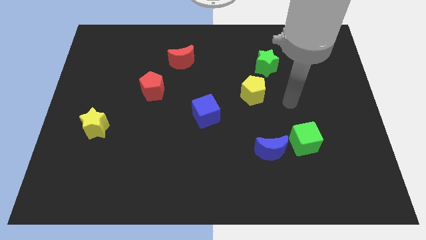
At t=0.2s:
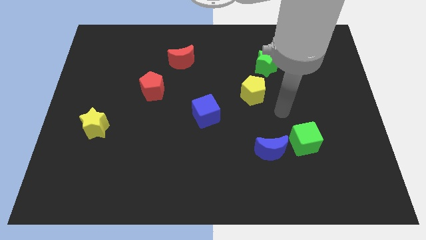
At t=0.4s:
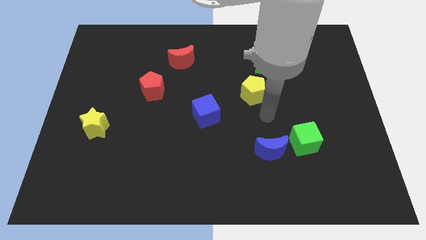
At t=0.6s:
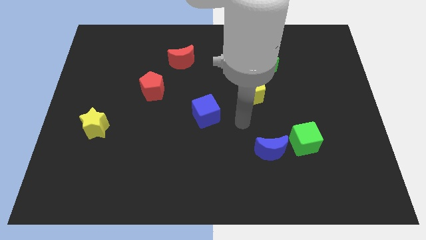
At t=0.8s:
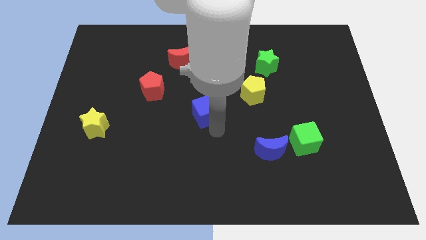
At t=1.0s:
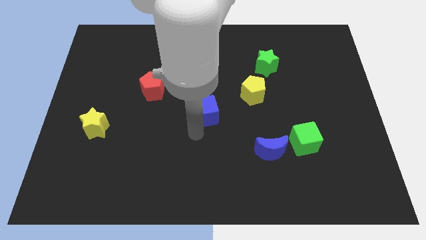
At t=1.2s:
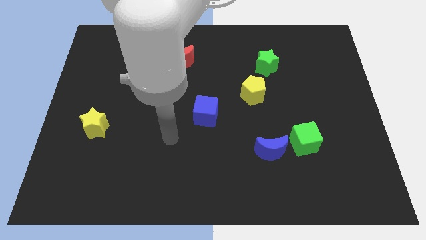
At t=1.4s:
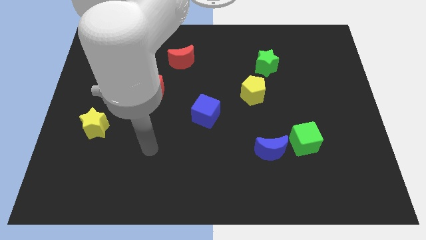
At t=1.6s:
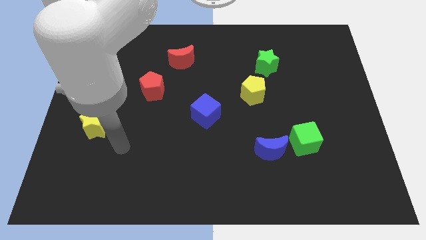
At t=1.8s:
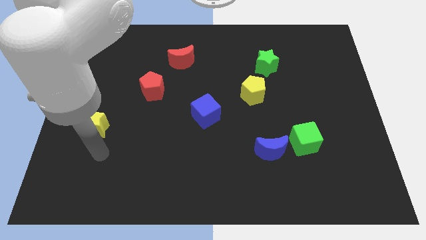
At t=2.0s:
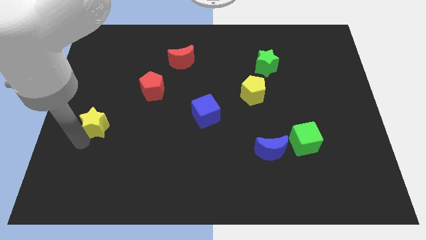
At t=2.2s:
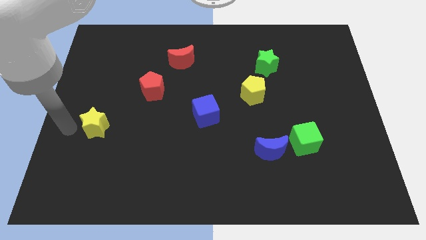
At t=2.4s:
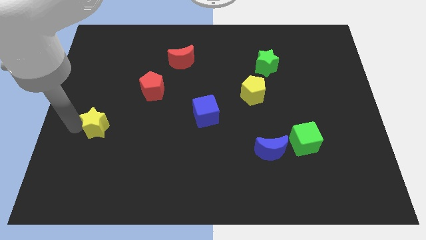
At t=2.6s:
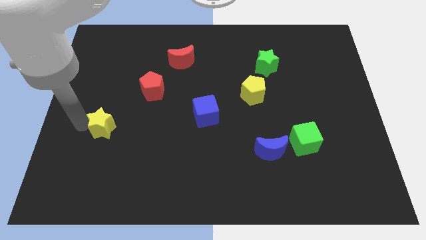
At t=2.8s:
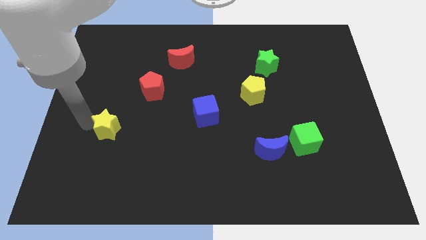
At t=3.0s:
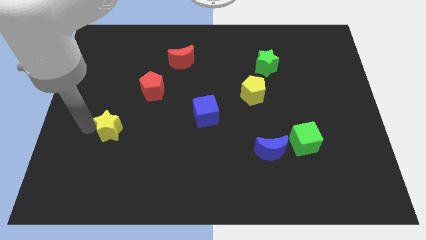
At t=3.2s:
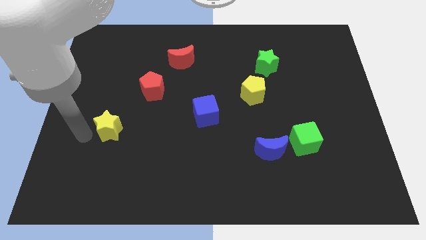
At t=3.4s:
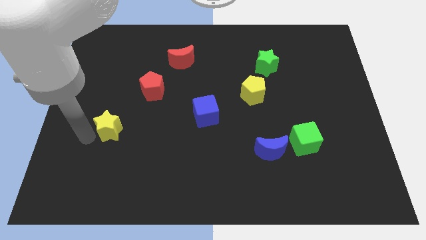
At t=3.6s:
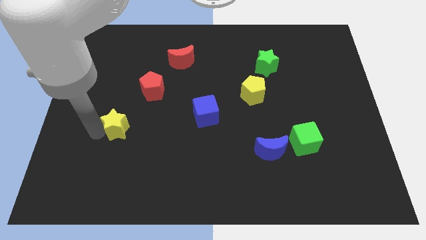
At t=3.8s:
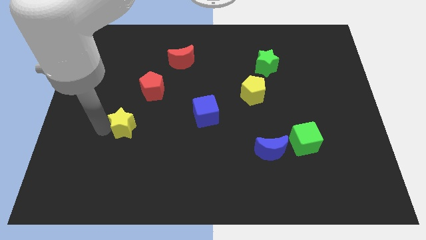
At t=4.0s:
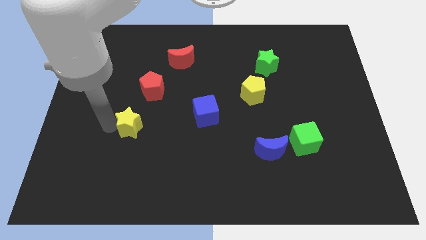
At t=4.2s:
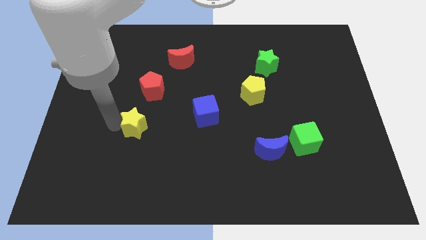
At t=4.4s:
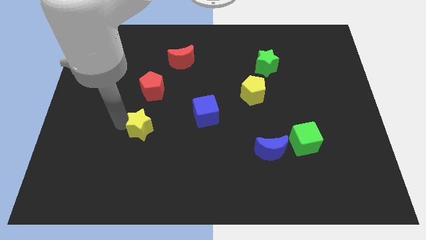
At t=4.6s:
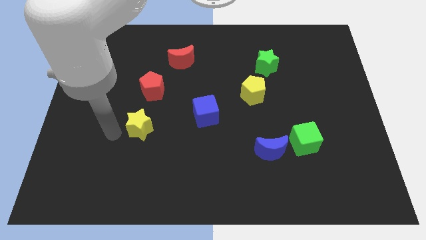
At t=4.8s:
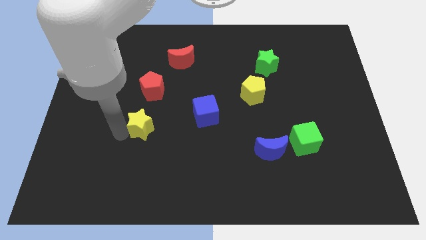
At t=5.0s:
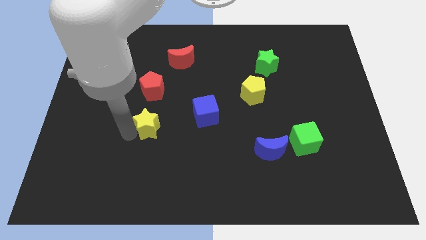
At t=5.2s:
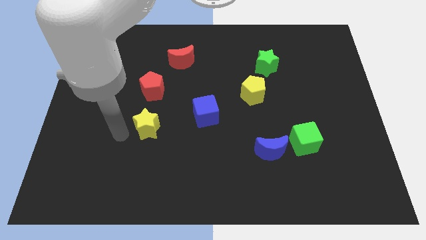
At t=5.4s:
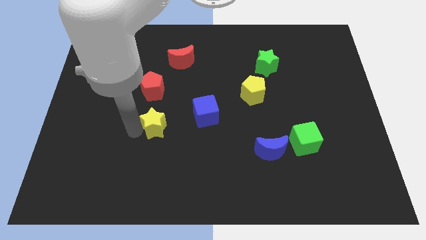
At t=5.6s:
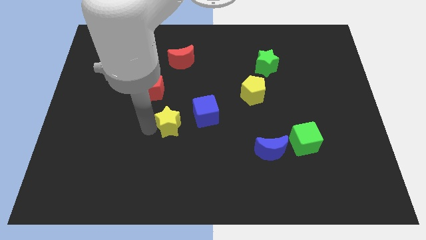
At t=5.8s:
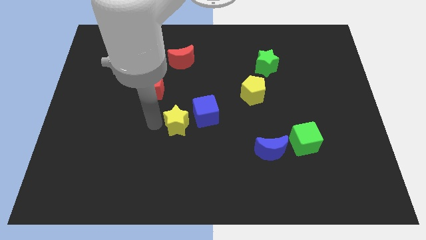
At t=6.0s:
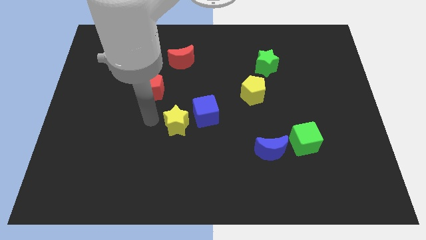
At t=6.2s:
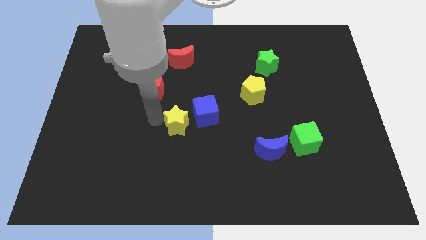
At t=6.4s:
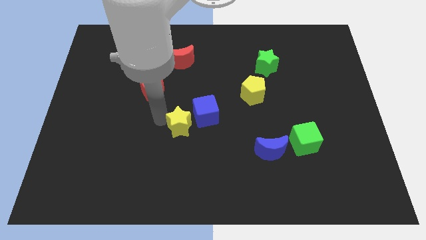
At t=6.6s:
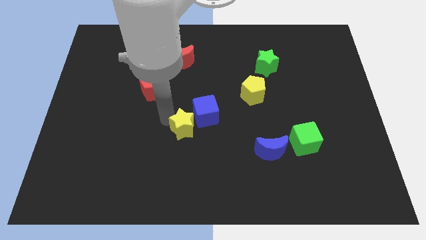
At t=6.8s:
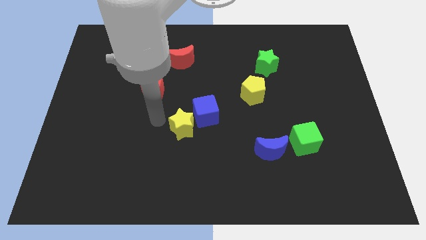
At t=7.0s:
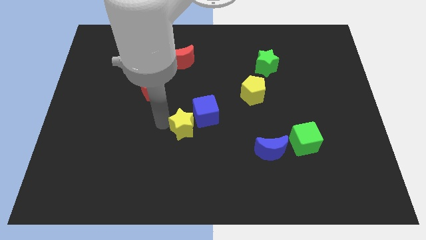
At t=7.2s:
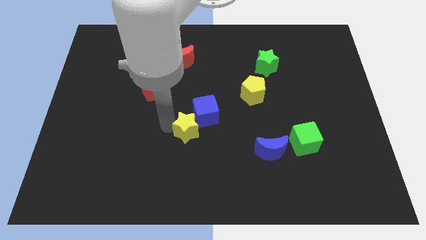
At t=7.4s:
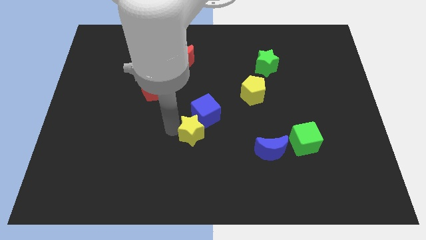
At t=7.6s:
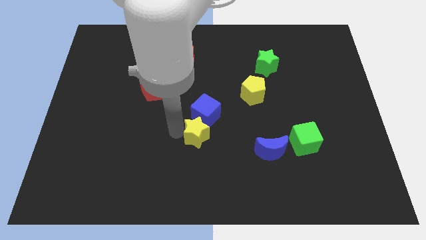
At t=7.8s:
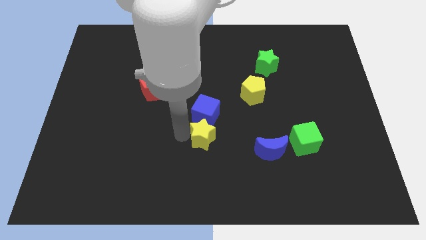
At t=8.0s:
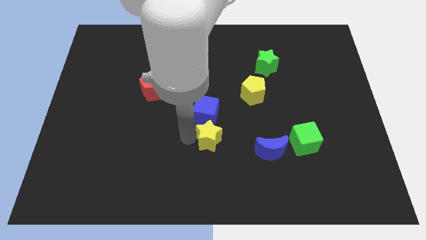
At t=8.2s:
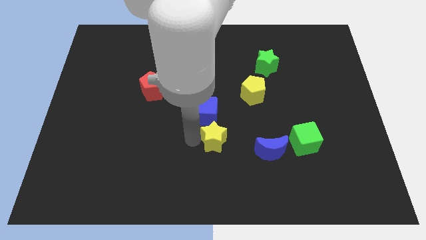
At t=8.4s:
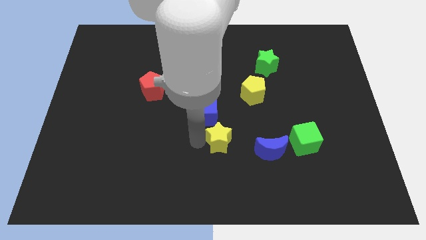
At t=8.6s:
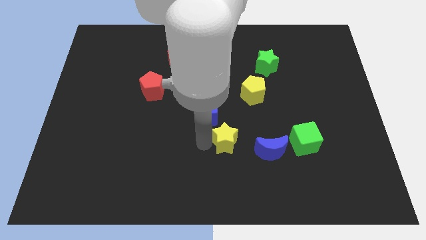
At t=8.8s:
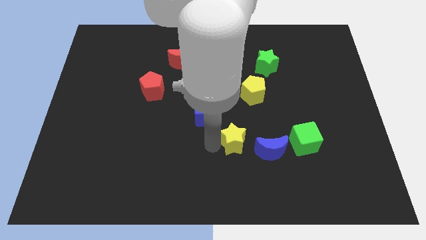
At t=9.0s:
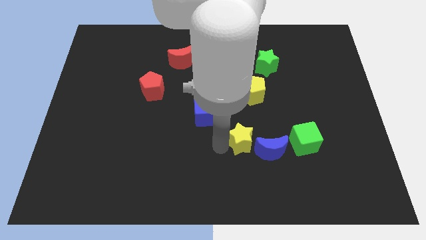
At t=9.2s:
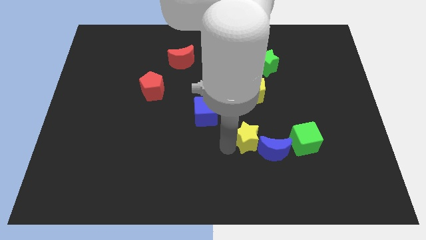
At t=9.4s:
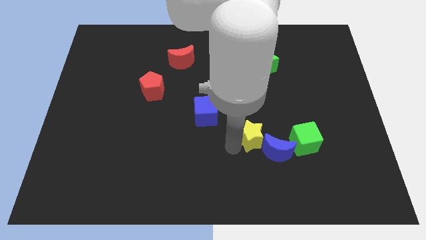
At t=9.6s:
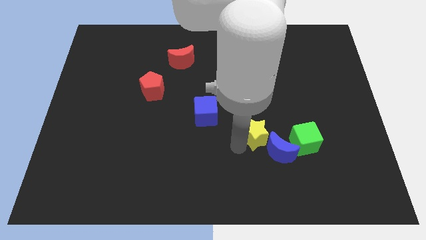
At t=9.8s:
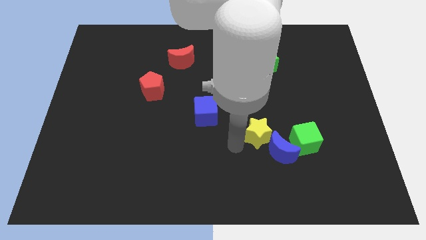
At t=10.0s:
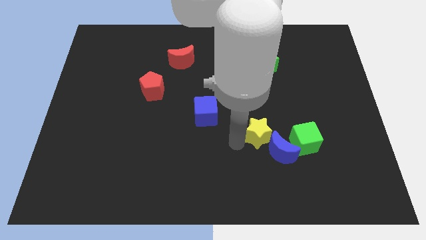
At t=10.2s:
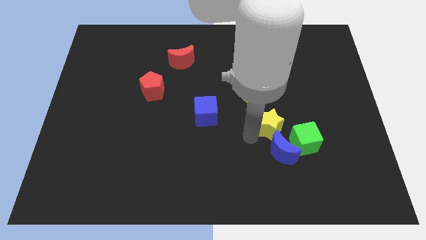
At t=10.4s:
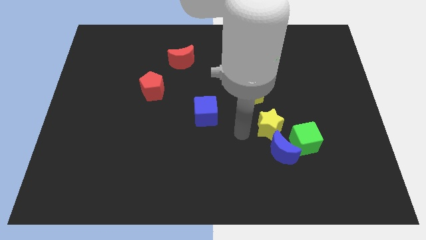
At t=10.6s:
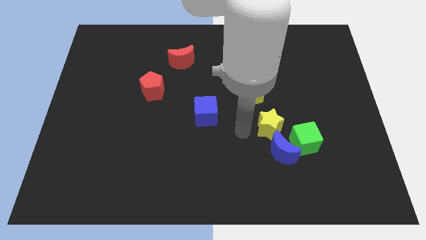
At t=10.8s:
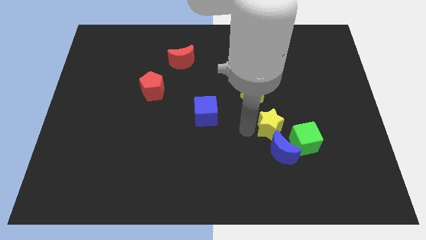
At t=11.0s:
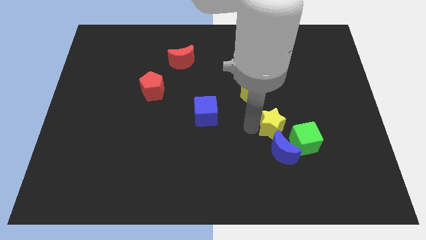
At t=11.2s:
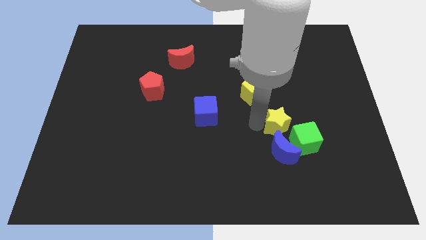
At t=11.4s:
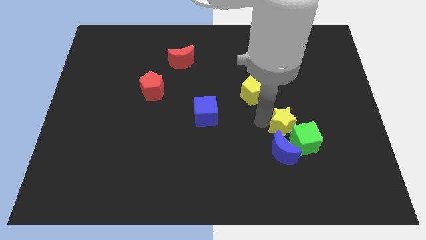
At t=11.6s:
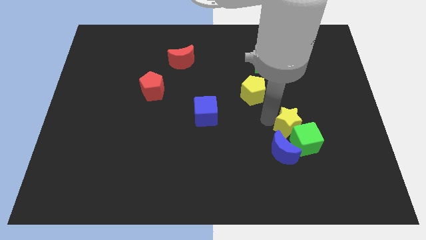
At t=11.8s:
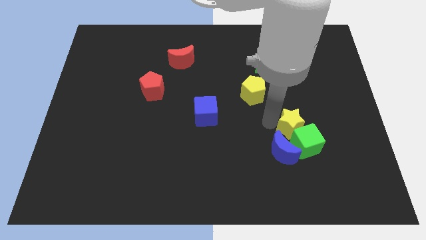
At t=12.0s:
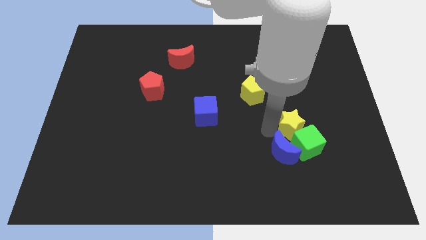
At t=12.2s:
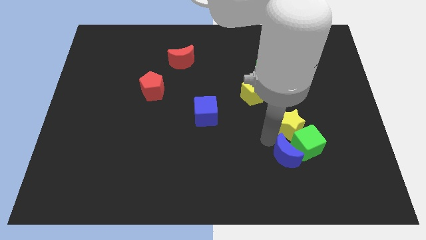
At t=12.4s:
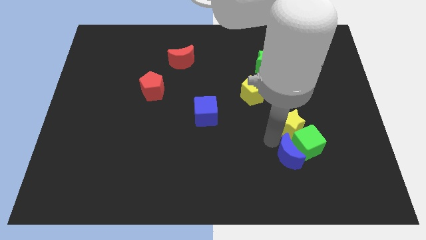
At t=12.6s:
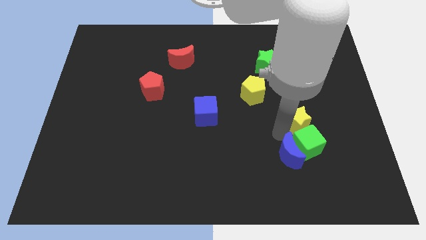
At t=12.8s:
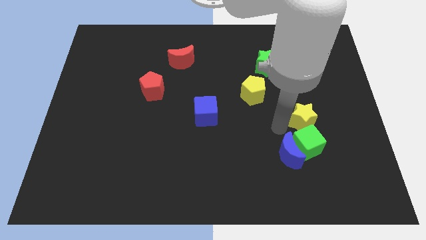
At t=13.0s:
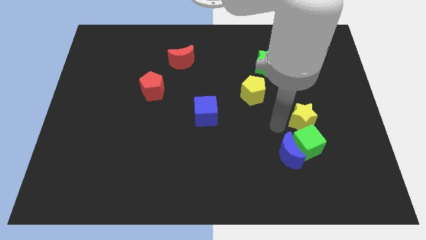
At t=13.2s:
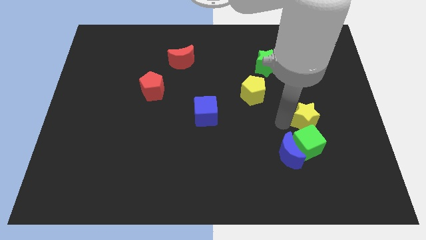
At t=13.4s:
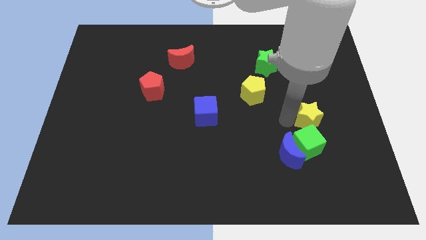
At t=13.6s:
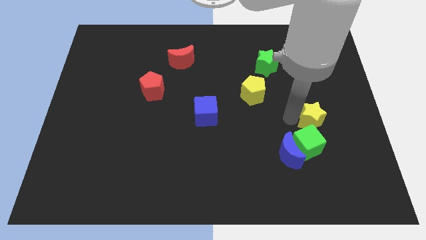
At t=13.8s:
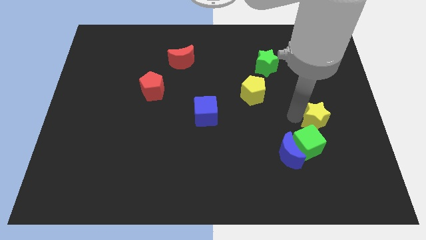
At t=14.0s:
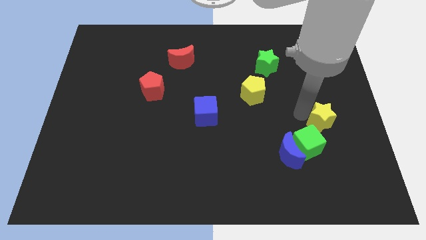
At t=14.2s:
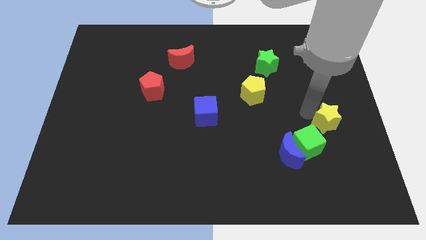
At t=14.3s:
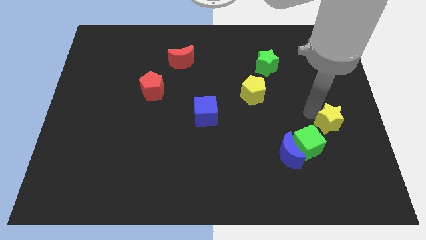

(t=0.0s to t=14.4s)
slide the yellow star to the right side
